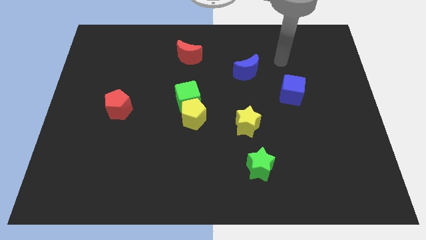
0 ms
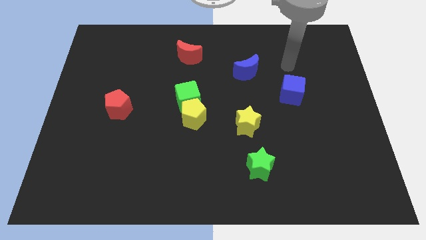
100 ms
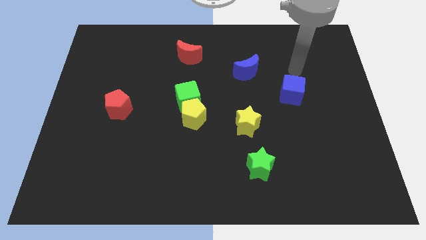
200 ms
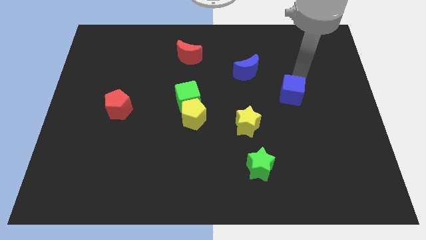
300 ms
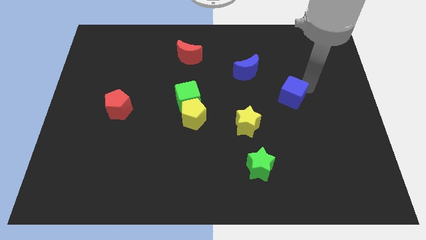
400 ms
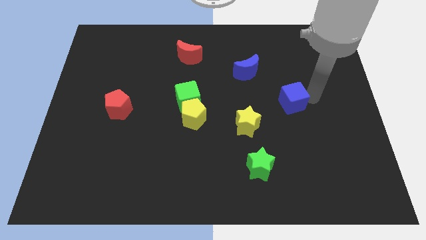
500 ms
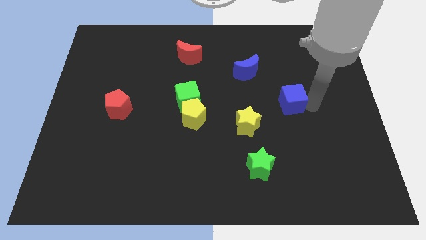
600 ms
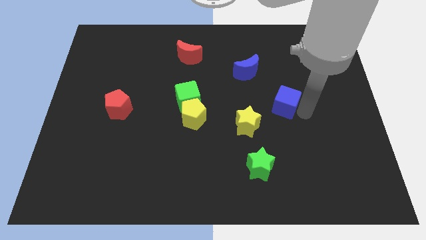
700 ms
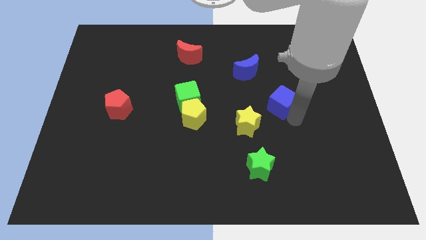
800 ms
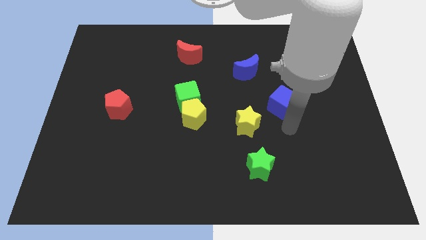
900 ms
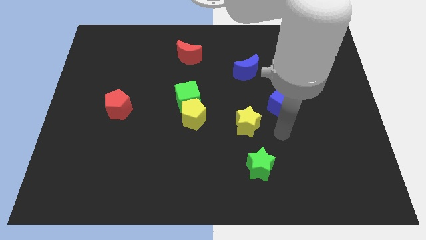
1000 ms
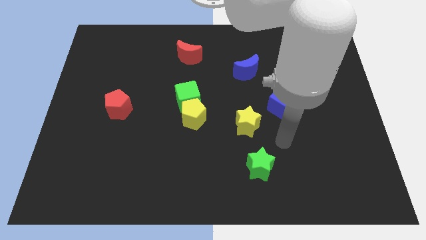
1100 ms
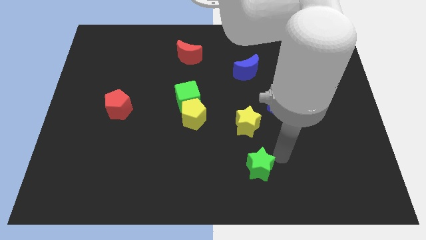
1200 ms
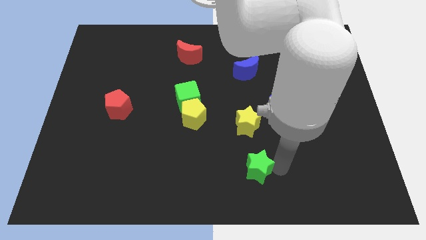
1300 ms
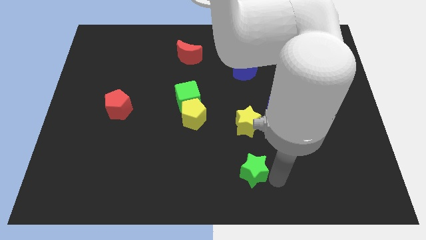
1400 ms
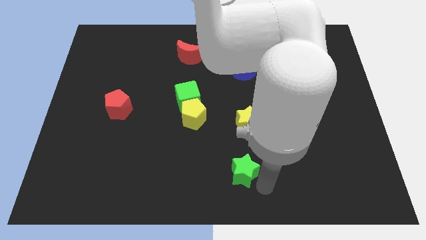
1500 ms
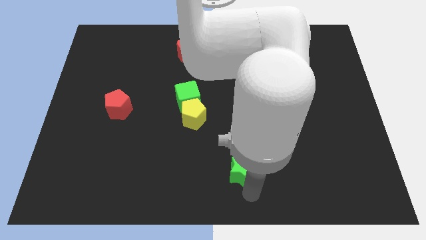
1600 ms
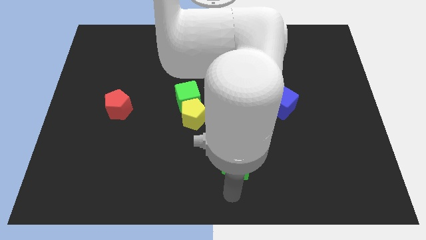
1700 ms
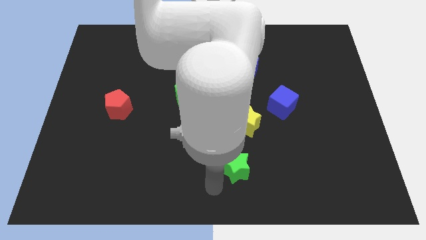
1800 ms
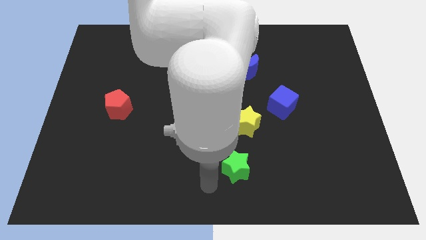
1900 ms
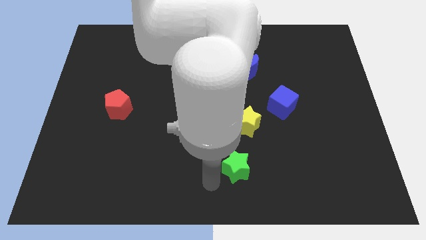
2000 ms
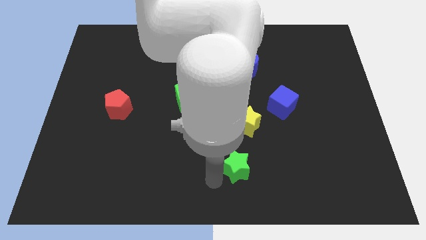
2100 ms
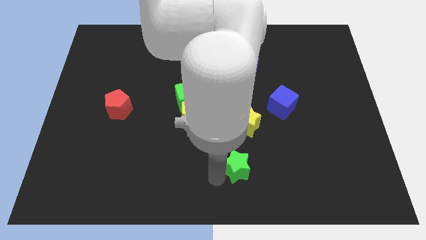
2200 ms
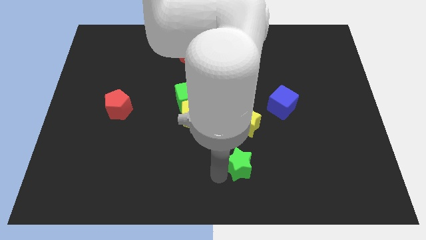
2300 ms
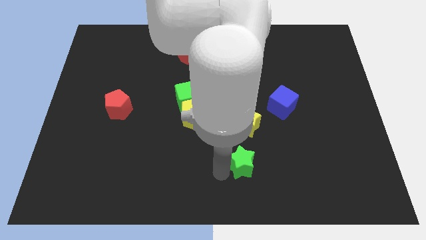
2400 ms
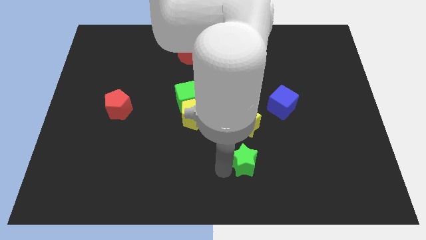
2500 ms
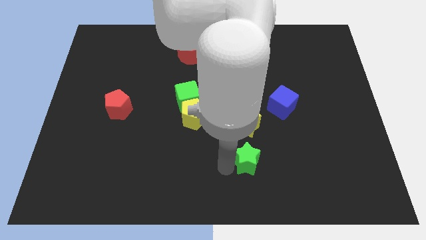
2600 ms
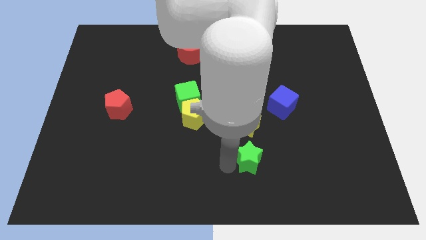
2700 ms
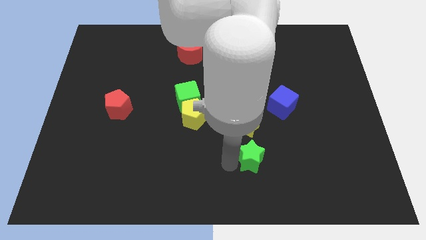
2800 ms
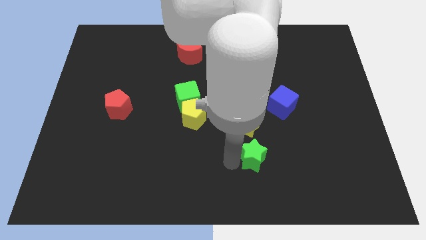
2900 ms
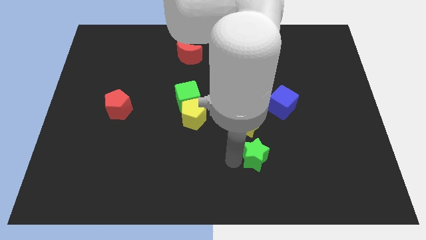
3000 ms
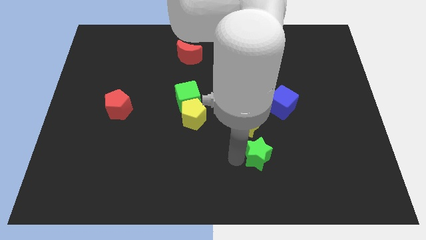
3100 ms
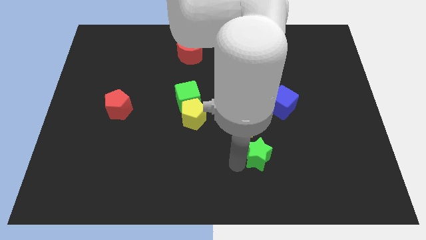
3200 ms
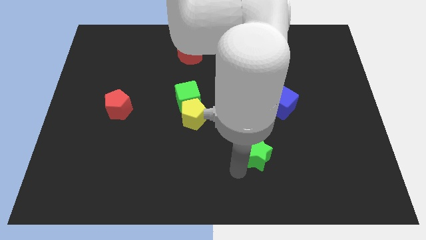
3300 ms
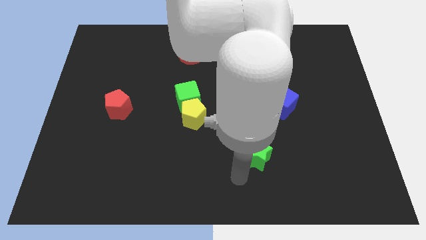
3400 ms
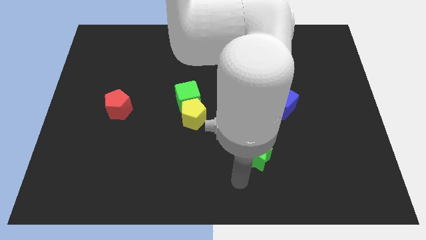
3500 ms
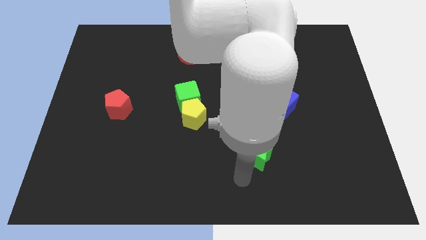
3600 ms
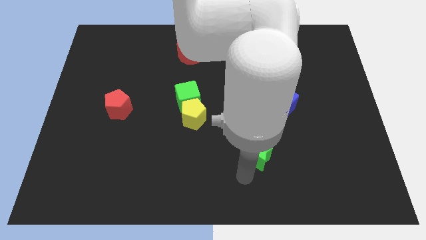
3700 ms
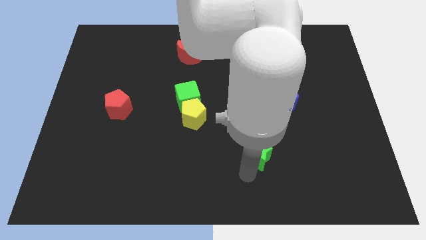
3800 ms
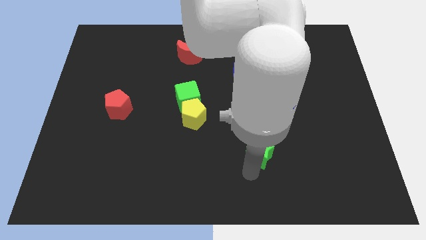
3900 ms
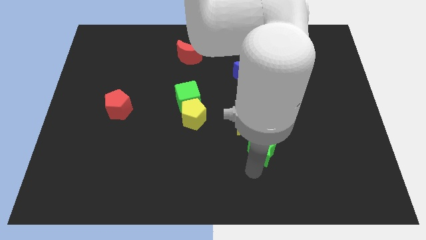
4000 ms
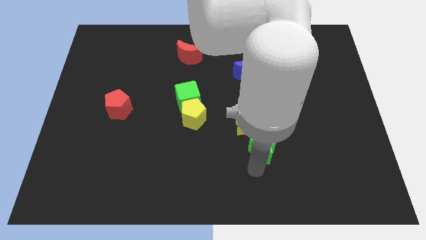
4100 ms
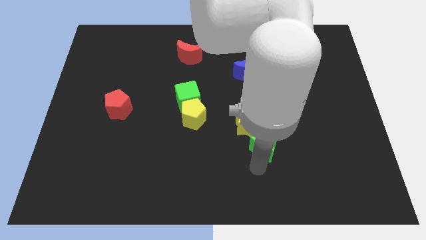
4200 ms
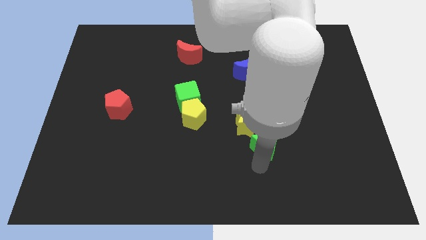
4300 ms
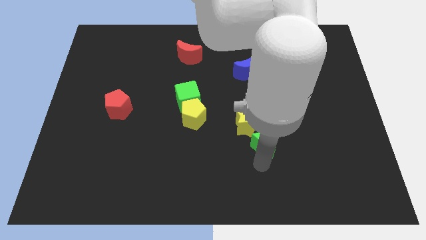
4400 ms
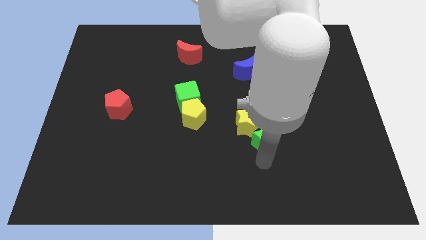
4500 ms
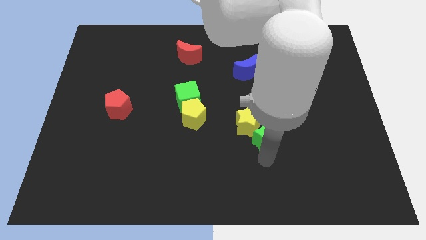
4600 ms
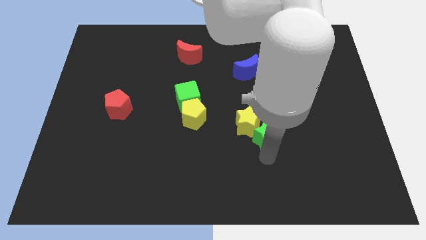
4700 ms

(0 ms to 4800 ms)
slightly move the green star upwards

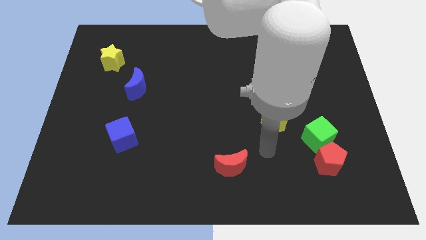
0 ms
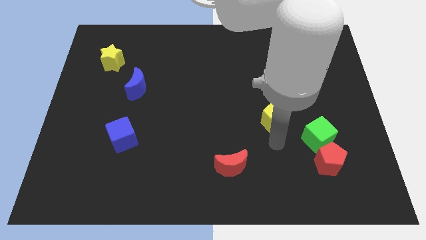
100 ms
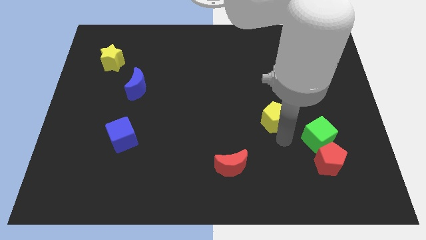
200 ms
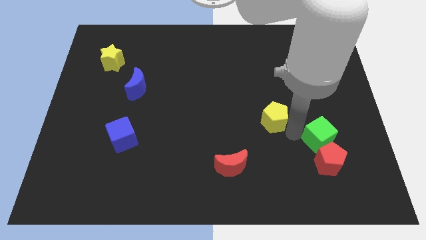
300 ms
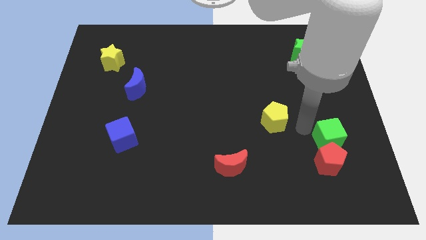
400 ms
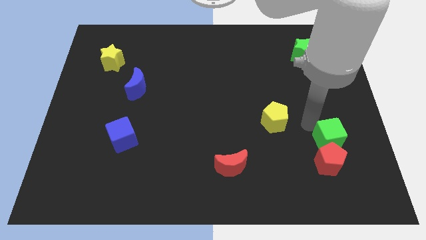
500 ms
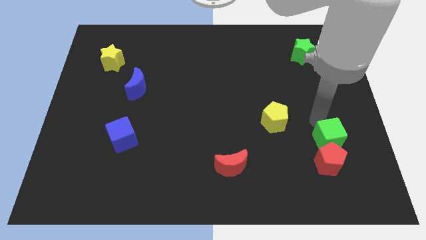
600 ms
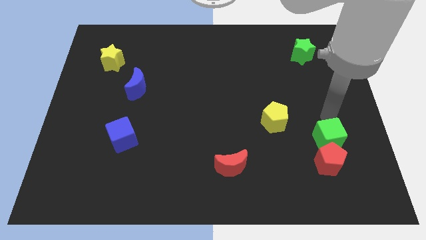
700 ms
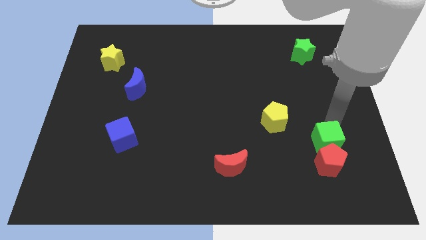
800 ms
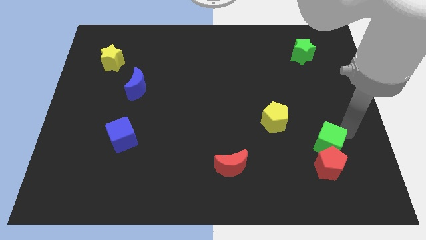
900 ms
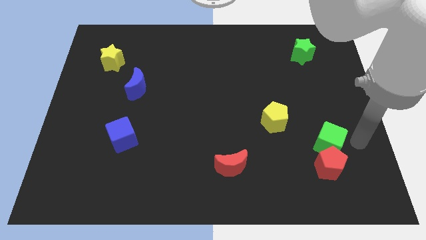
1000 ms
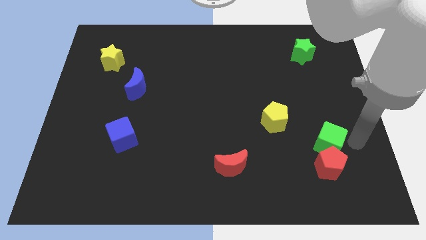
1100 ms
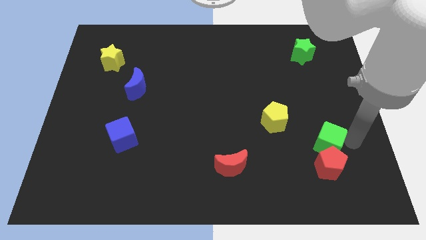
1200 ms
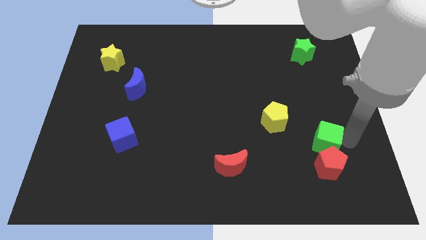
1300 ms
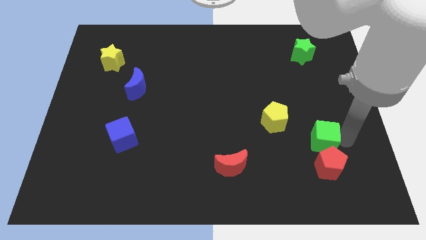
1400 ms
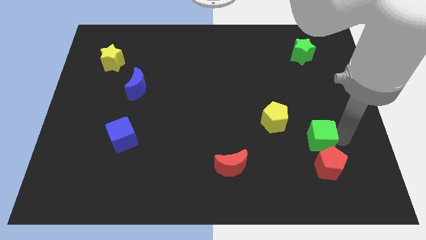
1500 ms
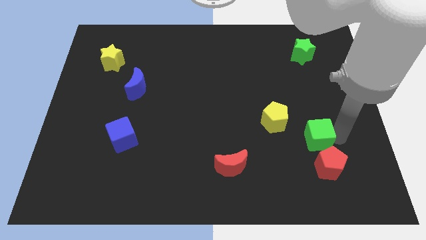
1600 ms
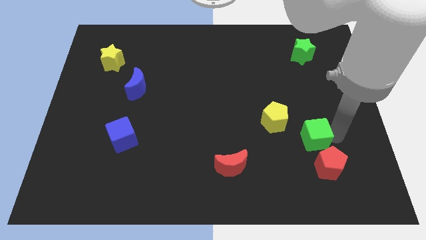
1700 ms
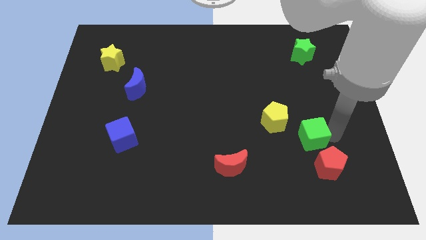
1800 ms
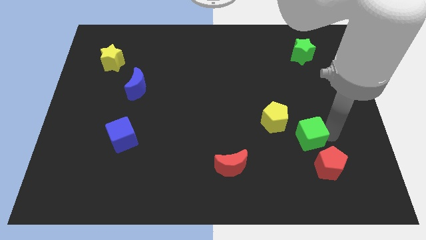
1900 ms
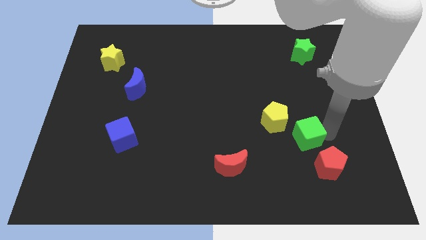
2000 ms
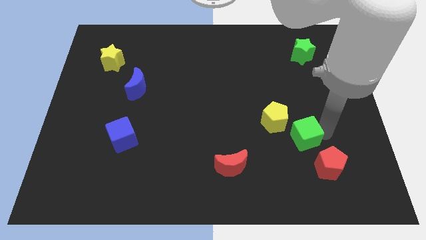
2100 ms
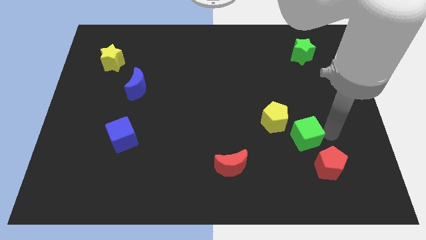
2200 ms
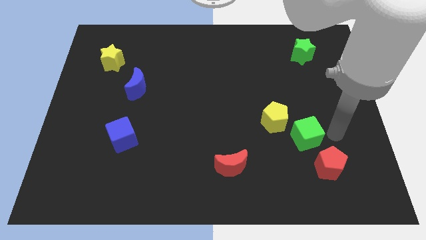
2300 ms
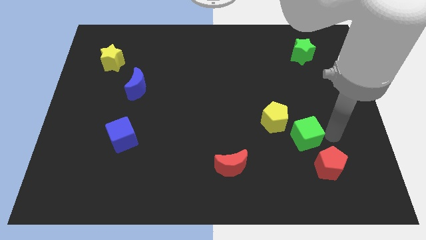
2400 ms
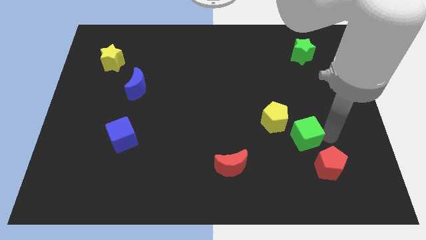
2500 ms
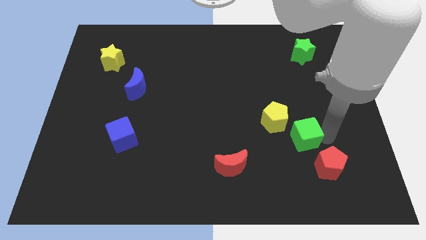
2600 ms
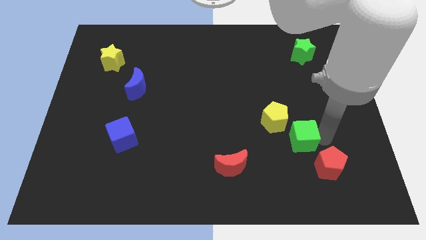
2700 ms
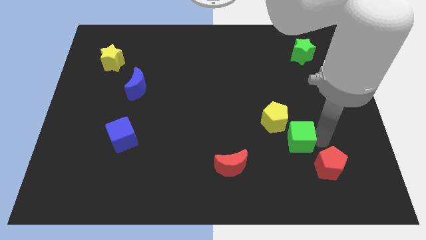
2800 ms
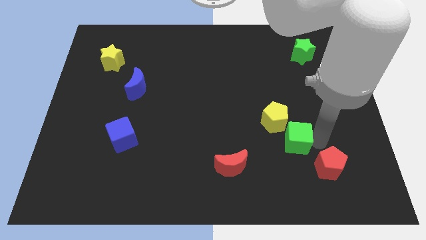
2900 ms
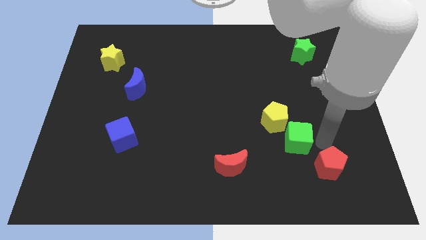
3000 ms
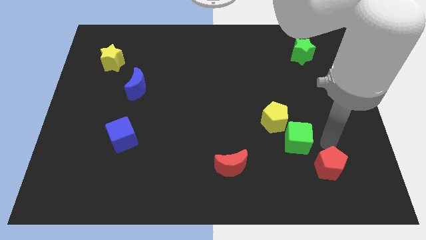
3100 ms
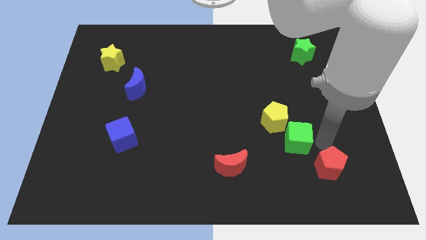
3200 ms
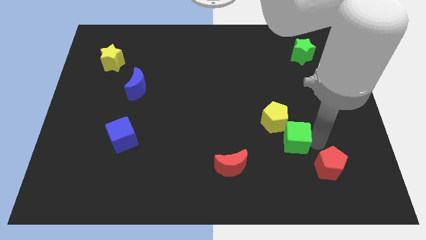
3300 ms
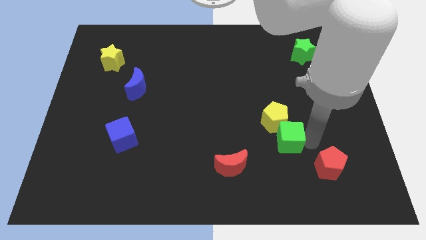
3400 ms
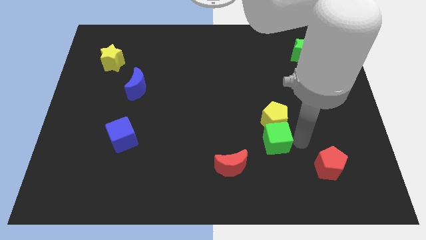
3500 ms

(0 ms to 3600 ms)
slide the green cube a bit to the left
